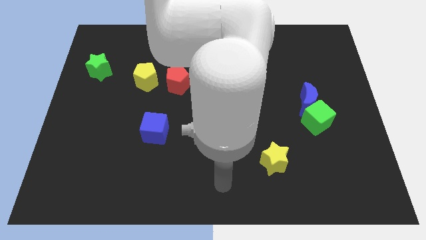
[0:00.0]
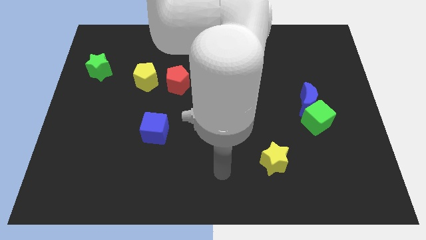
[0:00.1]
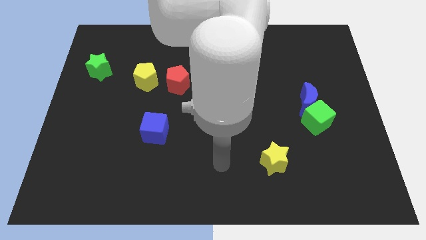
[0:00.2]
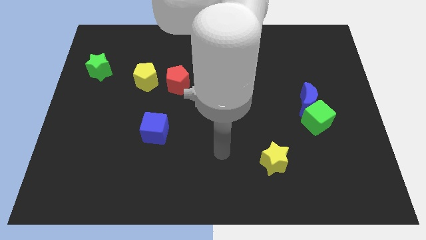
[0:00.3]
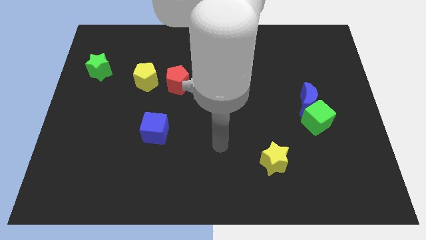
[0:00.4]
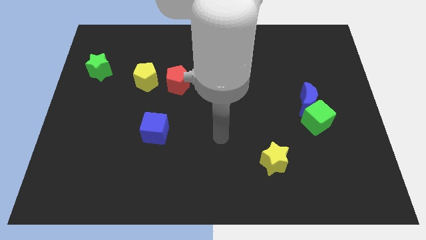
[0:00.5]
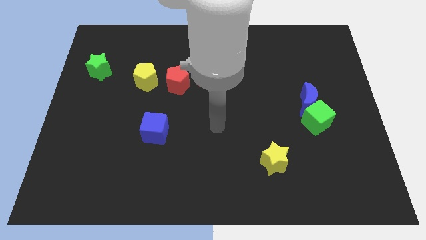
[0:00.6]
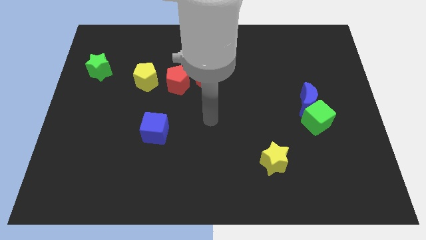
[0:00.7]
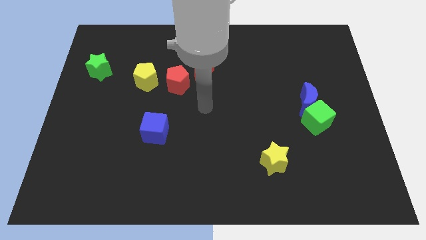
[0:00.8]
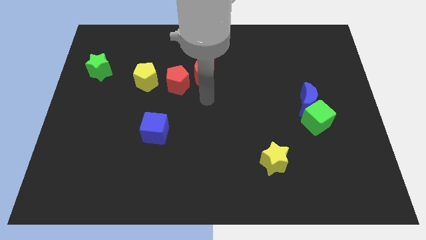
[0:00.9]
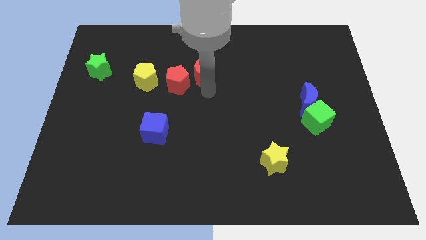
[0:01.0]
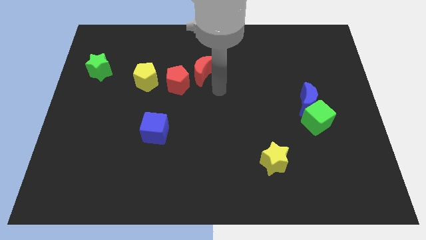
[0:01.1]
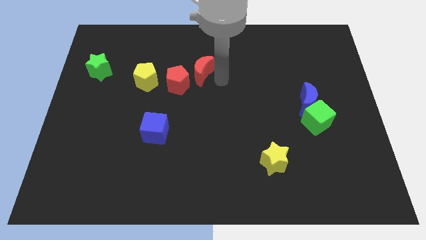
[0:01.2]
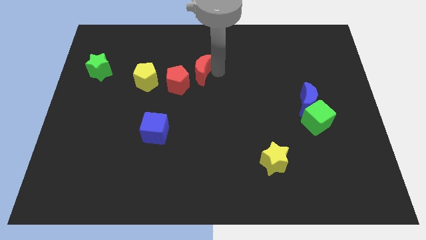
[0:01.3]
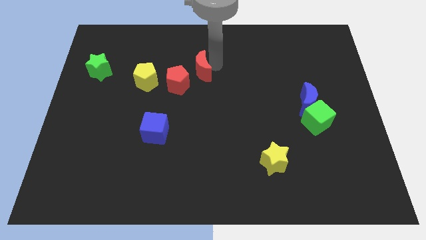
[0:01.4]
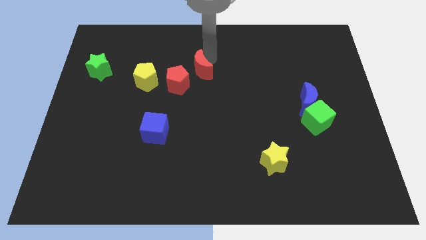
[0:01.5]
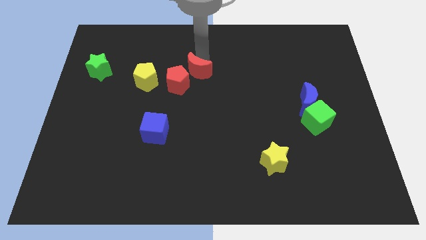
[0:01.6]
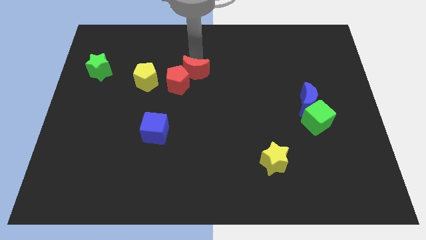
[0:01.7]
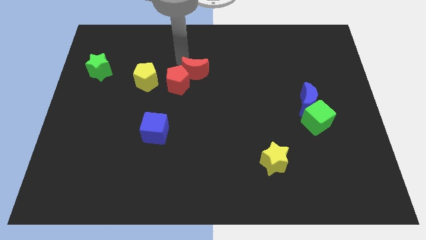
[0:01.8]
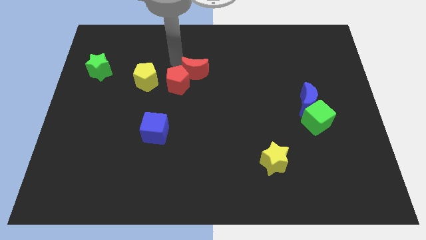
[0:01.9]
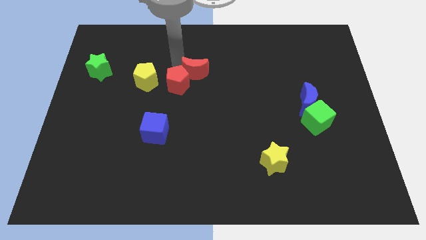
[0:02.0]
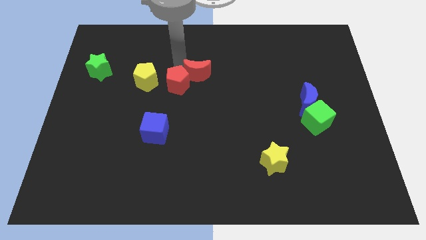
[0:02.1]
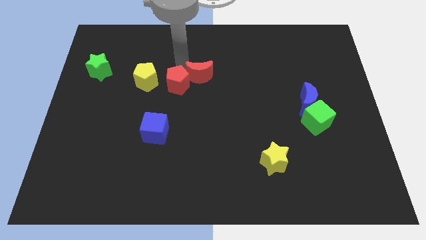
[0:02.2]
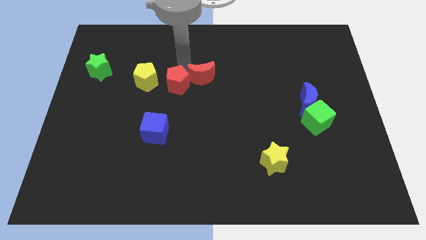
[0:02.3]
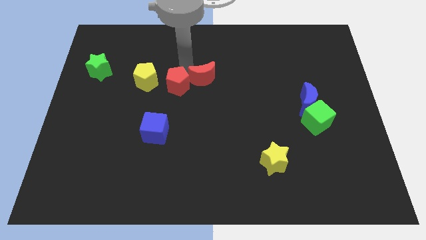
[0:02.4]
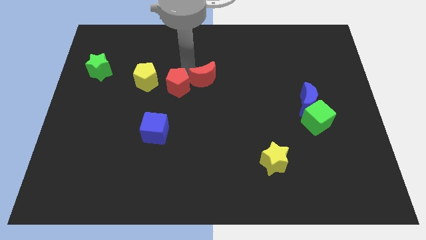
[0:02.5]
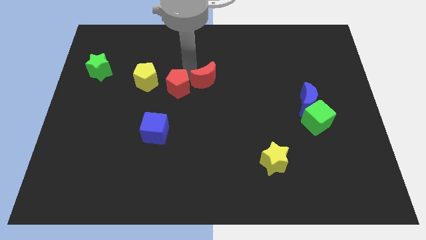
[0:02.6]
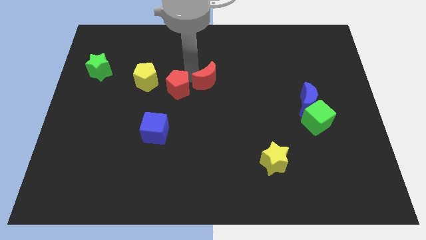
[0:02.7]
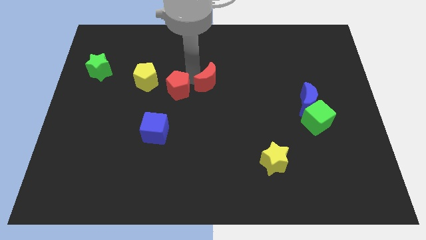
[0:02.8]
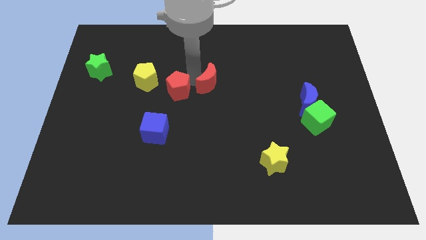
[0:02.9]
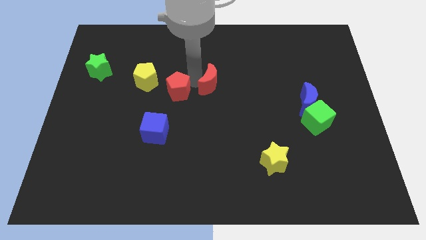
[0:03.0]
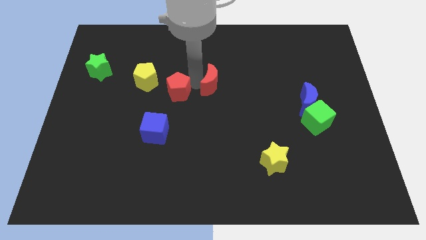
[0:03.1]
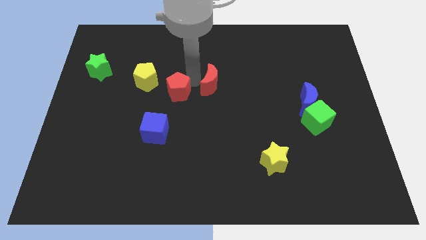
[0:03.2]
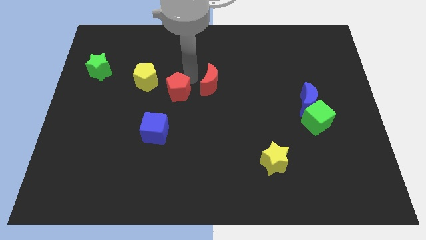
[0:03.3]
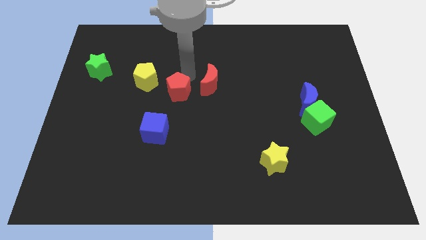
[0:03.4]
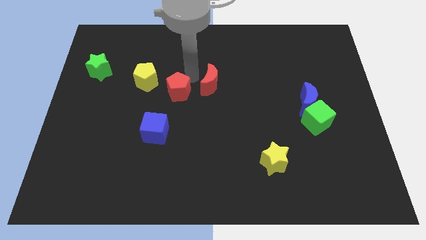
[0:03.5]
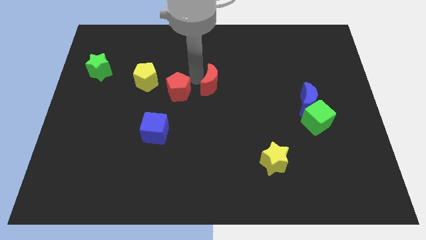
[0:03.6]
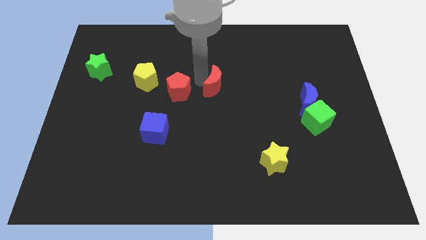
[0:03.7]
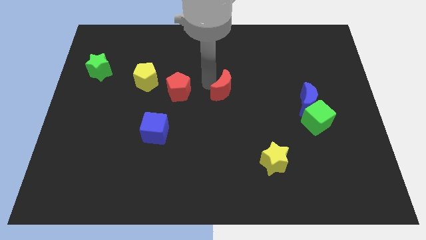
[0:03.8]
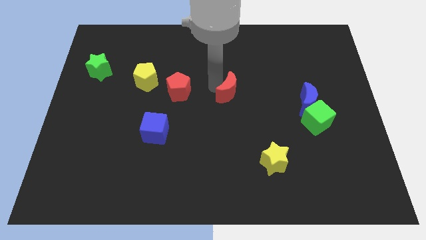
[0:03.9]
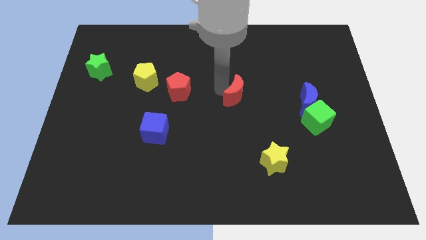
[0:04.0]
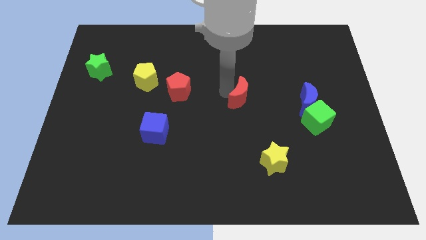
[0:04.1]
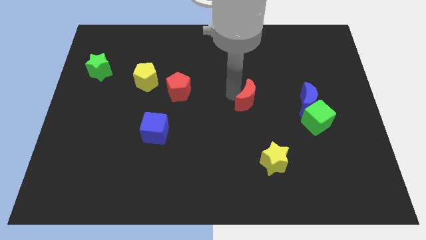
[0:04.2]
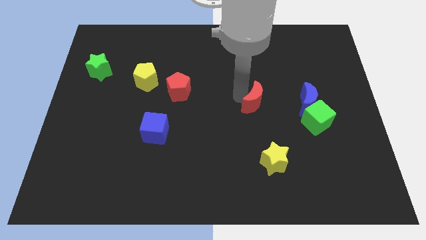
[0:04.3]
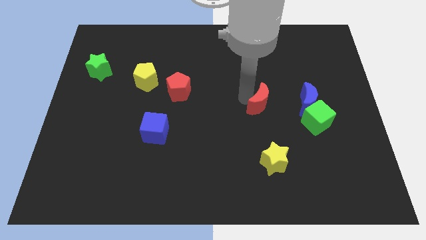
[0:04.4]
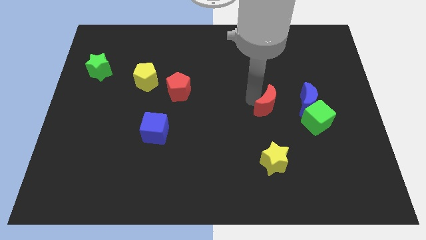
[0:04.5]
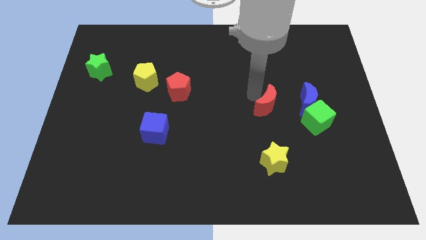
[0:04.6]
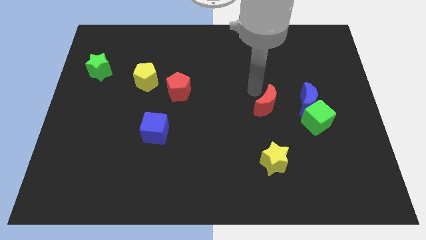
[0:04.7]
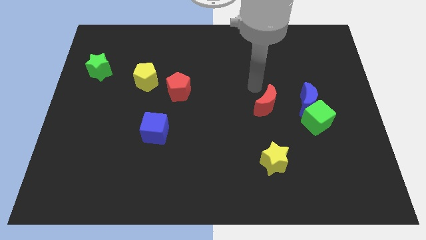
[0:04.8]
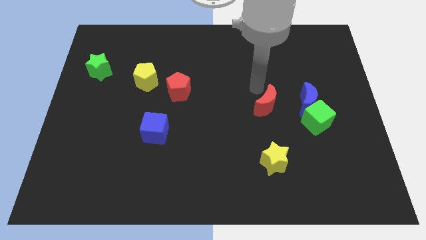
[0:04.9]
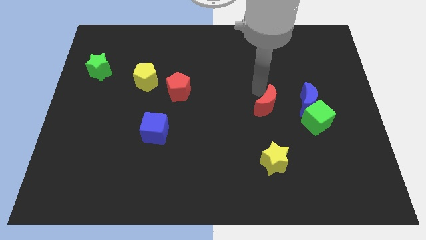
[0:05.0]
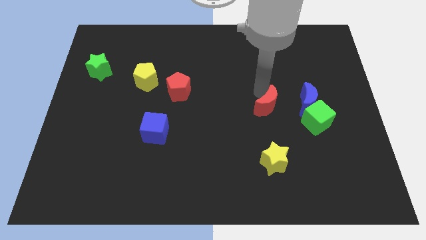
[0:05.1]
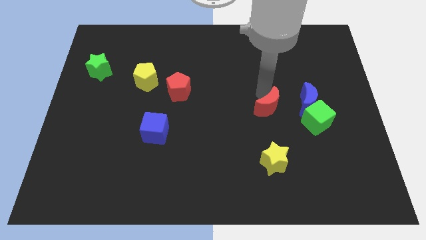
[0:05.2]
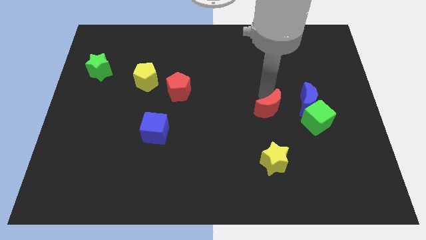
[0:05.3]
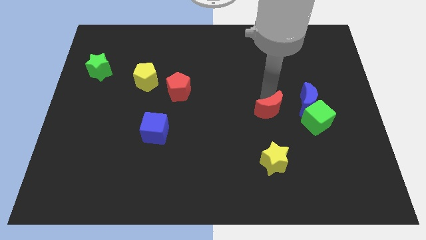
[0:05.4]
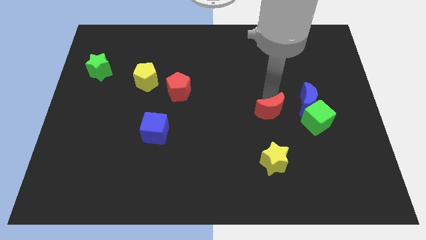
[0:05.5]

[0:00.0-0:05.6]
move the red moon diagonally downwards and to the right

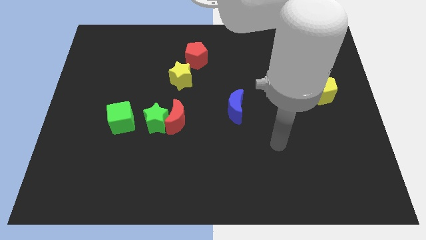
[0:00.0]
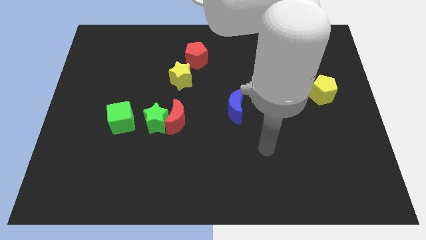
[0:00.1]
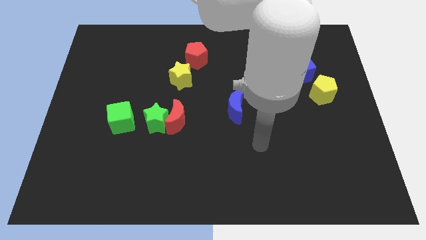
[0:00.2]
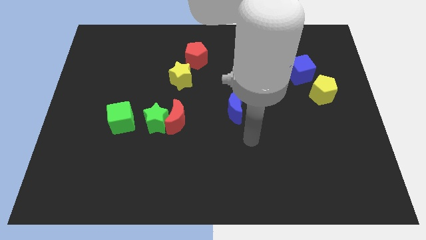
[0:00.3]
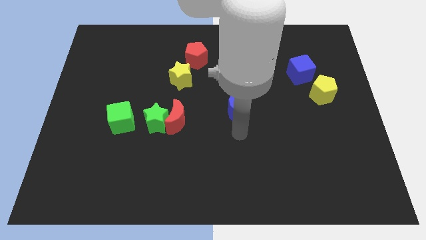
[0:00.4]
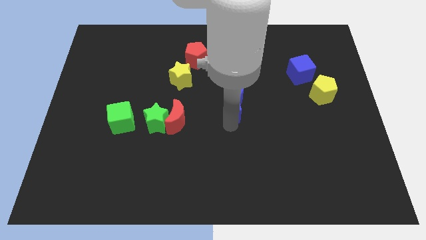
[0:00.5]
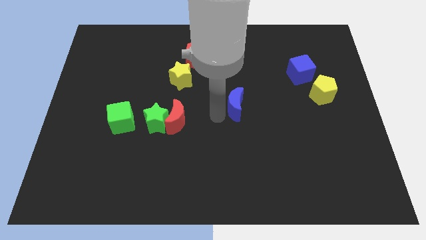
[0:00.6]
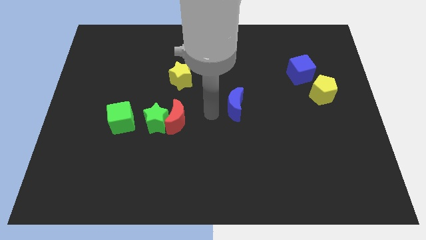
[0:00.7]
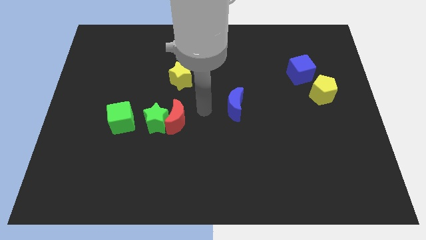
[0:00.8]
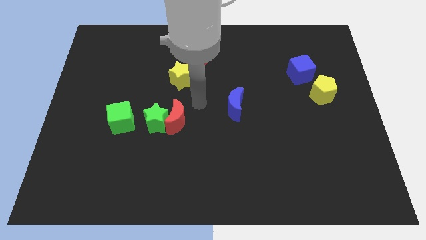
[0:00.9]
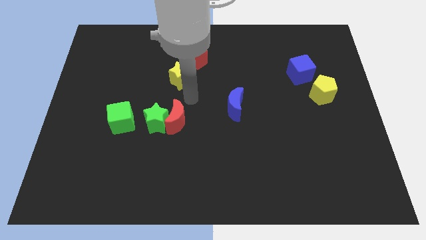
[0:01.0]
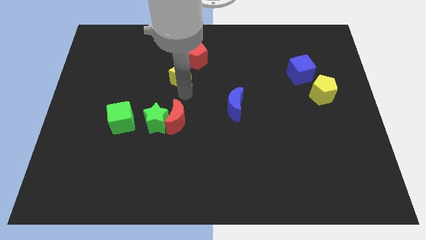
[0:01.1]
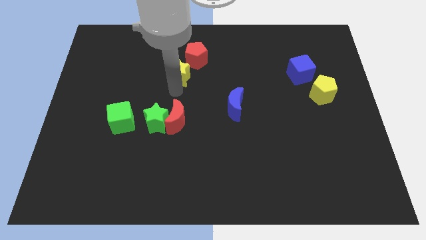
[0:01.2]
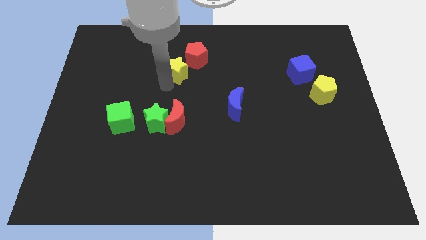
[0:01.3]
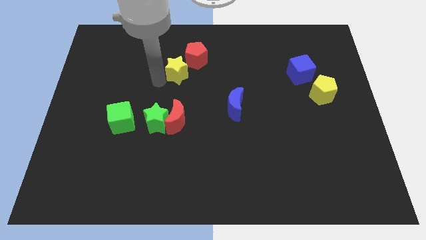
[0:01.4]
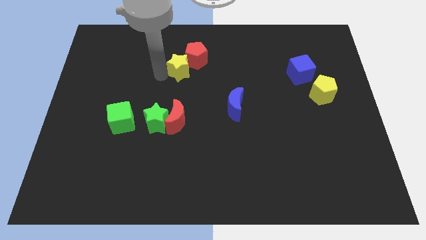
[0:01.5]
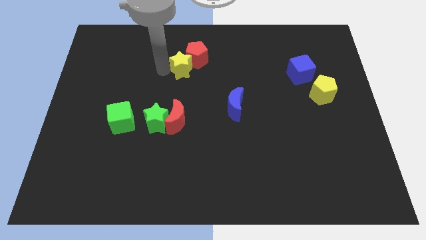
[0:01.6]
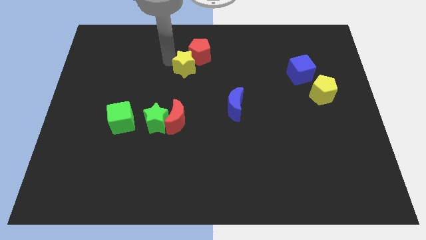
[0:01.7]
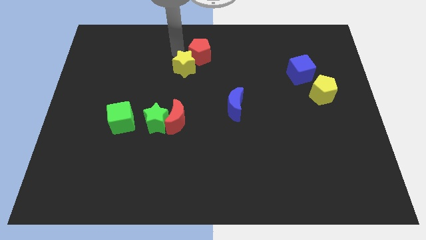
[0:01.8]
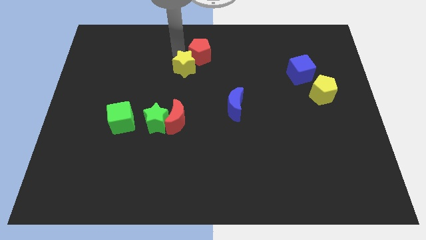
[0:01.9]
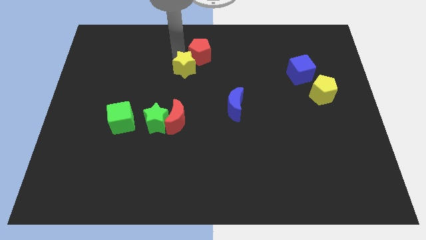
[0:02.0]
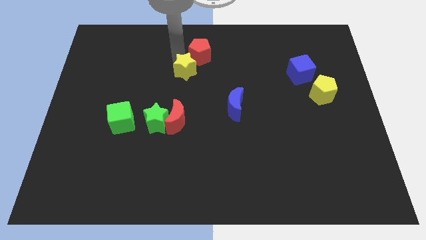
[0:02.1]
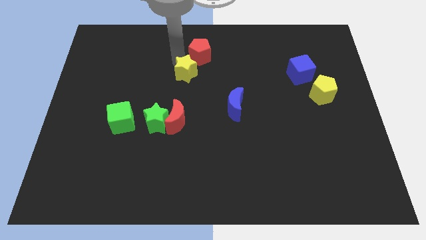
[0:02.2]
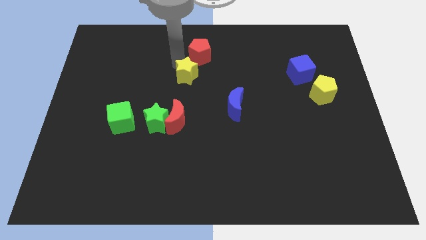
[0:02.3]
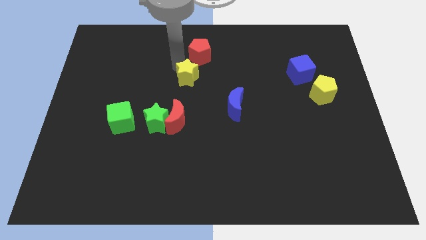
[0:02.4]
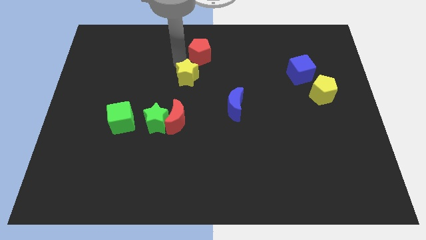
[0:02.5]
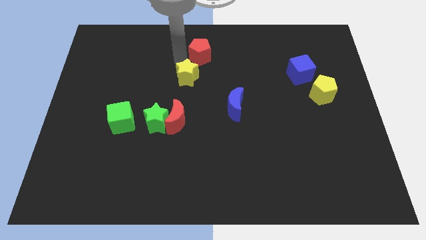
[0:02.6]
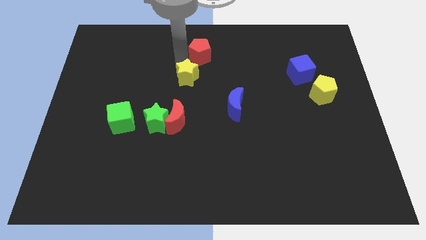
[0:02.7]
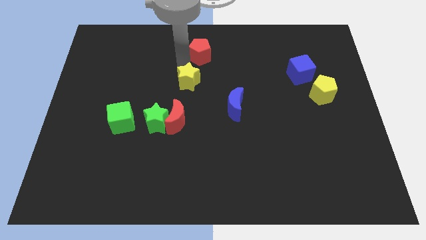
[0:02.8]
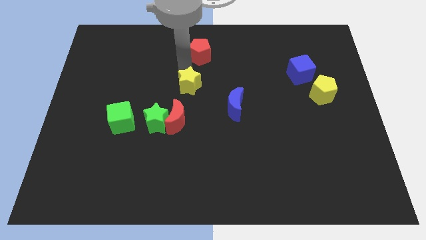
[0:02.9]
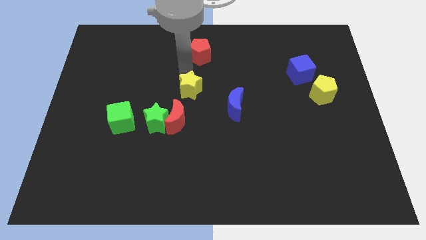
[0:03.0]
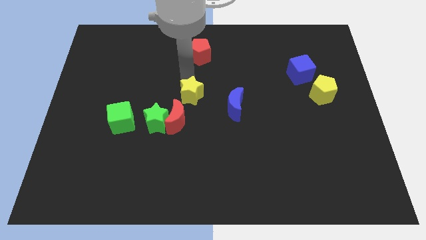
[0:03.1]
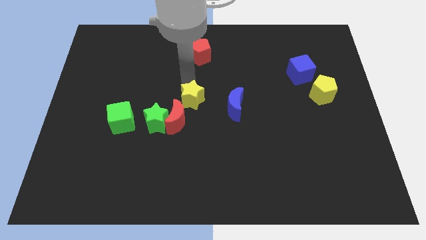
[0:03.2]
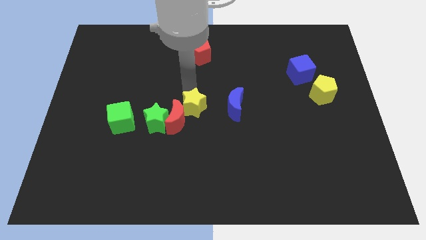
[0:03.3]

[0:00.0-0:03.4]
push the yellow star slightly downwards
